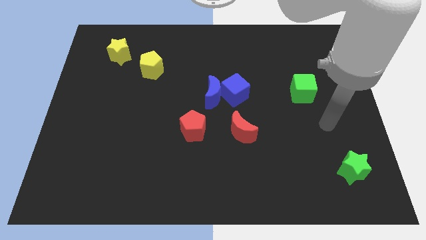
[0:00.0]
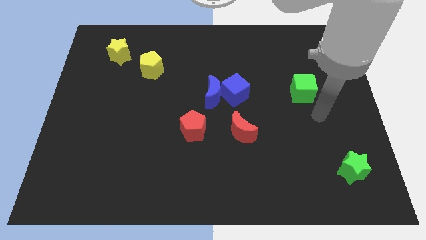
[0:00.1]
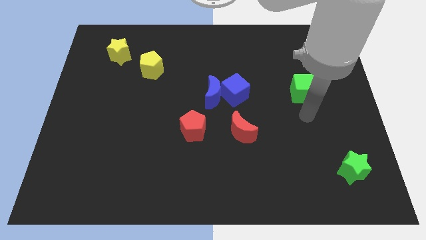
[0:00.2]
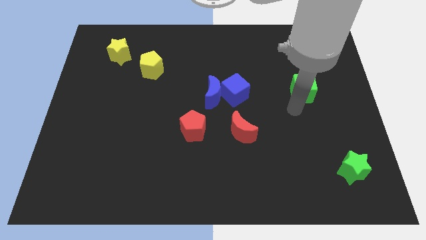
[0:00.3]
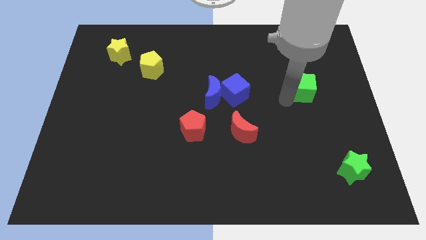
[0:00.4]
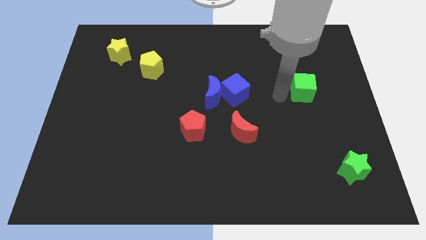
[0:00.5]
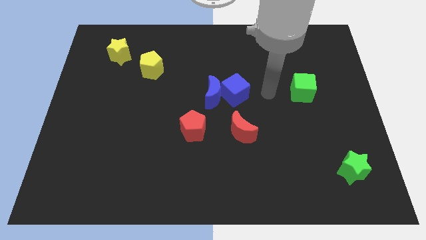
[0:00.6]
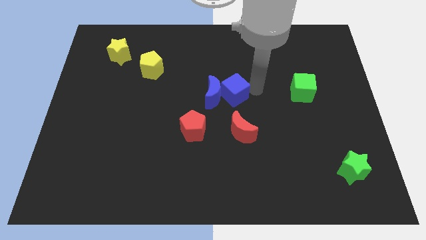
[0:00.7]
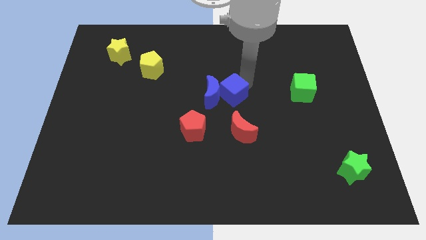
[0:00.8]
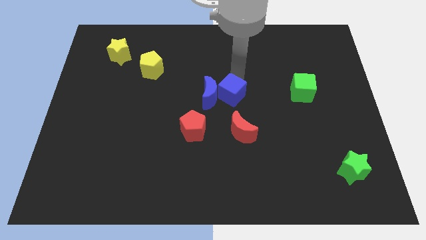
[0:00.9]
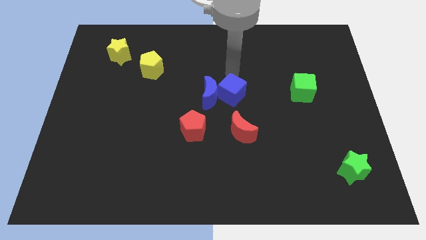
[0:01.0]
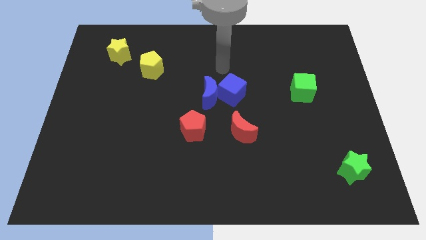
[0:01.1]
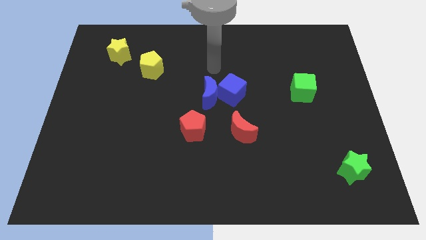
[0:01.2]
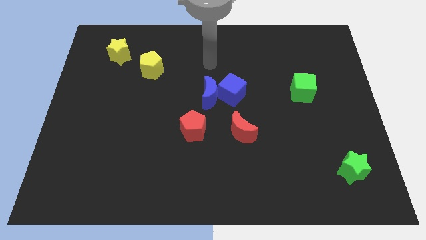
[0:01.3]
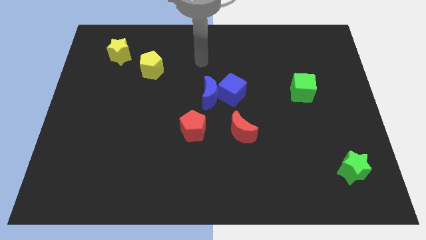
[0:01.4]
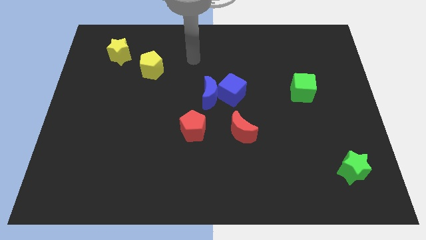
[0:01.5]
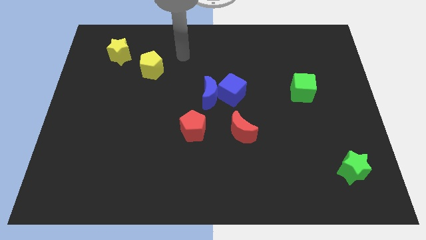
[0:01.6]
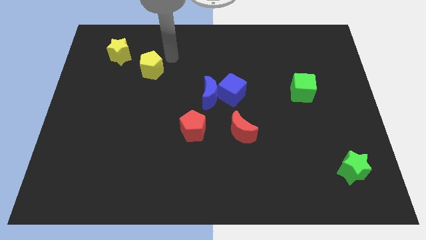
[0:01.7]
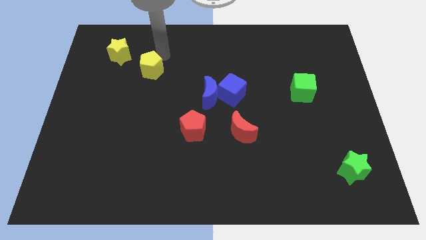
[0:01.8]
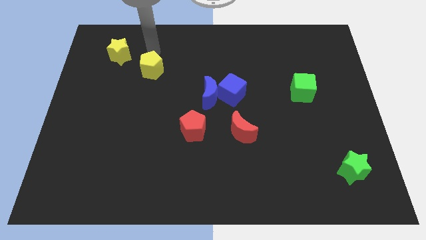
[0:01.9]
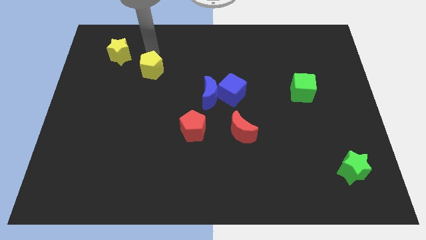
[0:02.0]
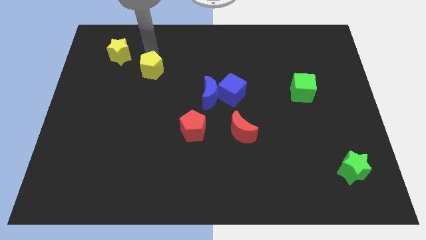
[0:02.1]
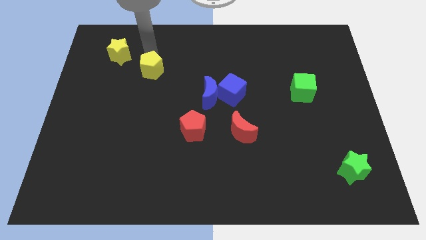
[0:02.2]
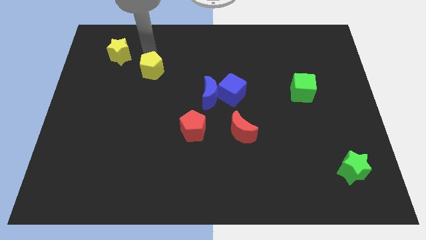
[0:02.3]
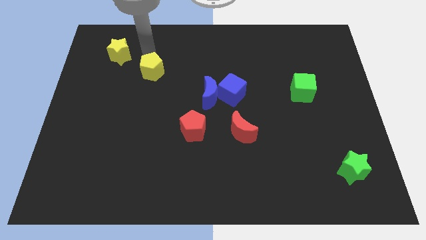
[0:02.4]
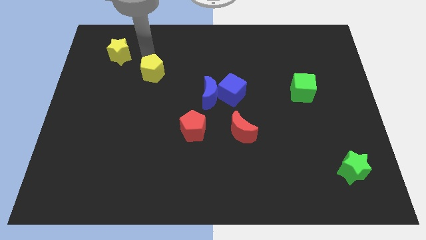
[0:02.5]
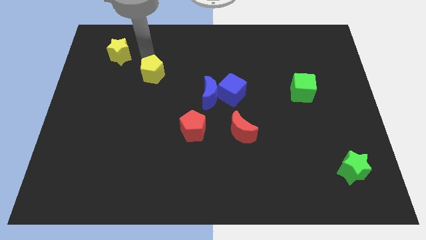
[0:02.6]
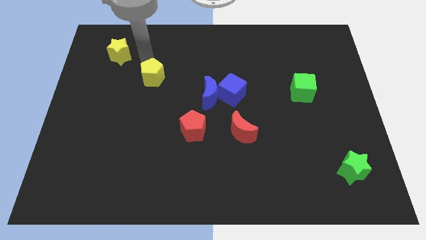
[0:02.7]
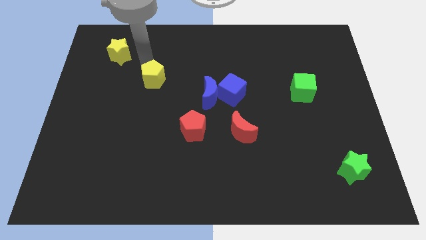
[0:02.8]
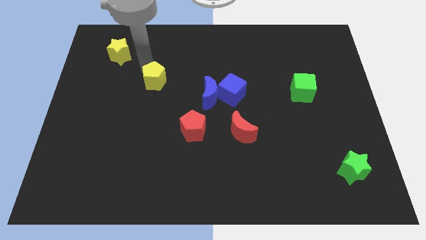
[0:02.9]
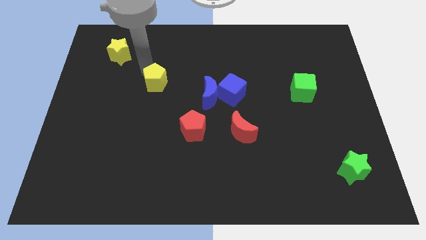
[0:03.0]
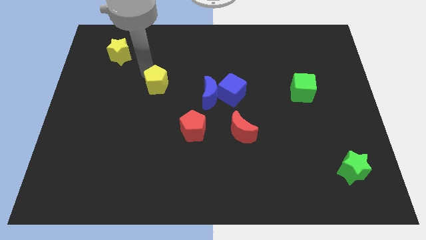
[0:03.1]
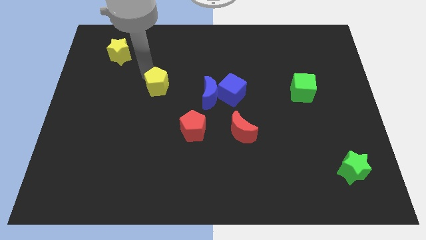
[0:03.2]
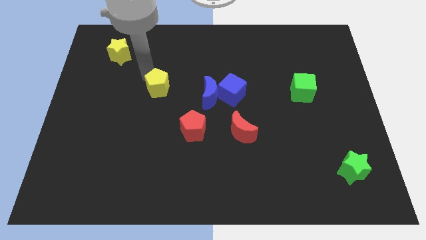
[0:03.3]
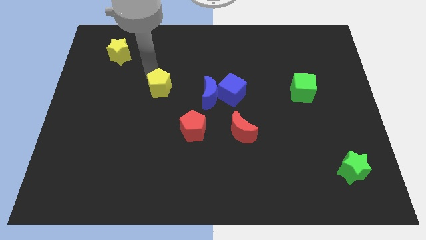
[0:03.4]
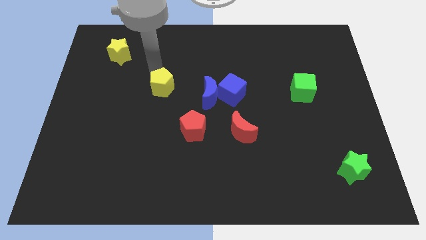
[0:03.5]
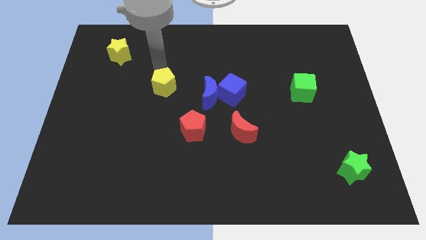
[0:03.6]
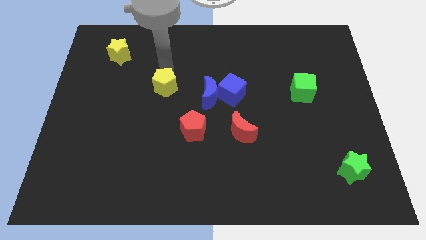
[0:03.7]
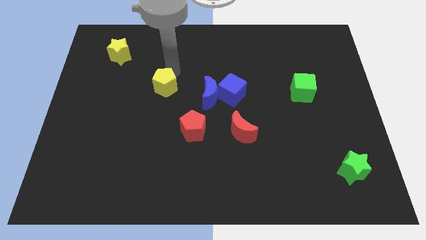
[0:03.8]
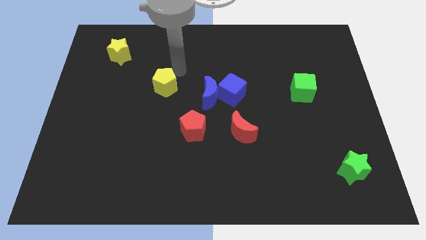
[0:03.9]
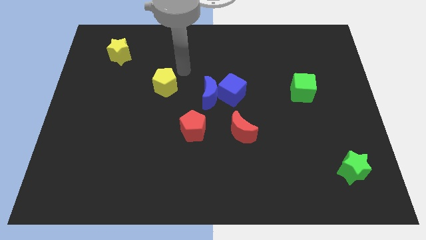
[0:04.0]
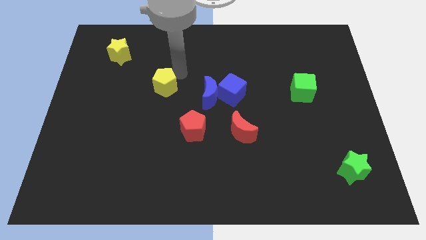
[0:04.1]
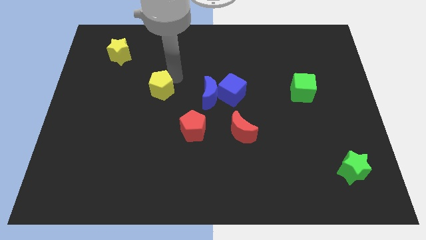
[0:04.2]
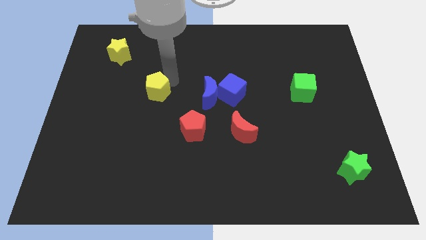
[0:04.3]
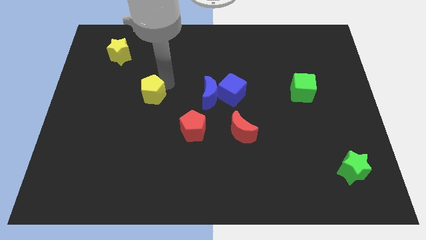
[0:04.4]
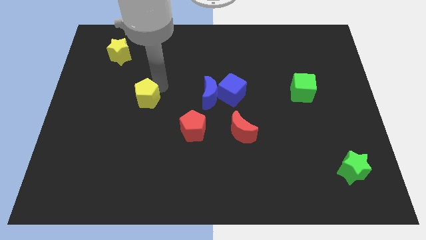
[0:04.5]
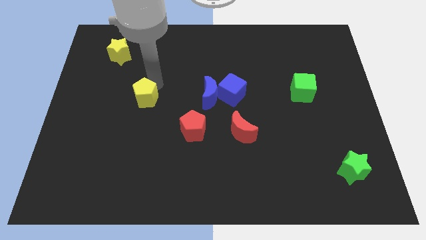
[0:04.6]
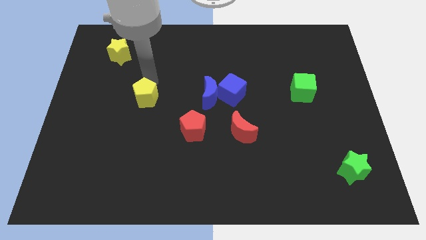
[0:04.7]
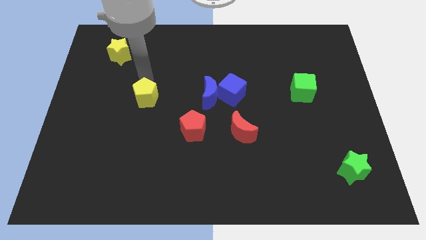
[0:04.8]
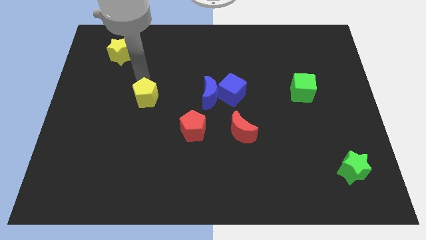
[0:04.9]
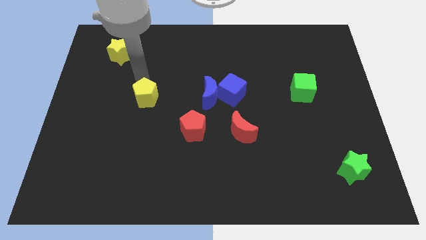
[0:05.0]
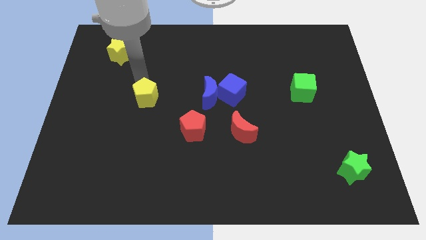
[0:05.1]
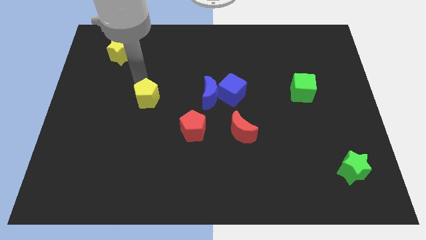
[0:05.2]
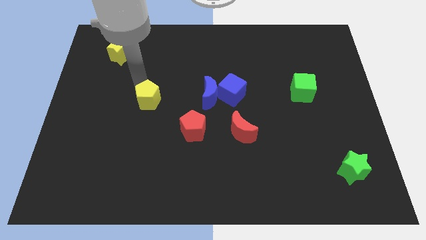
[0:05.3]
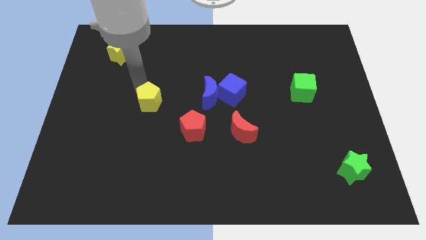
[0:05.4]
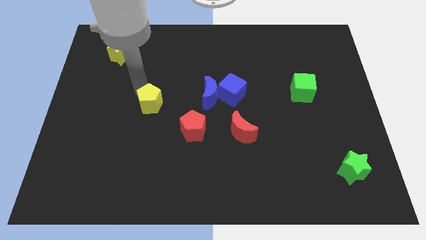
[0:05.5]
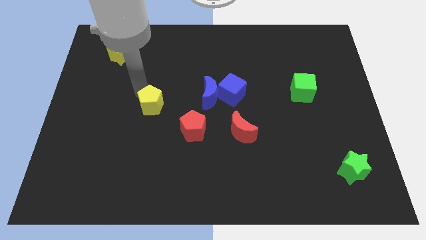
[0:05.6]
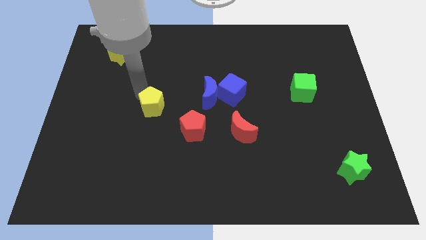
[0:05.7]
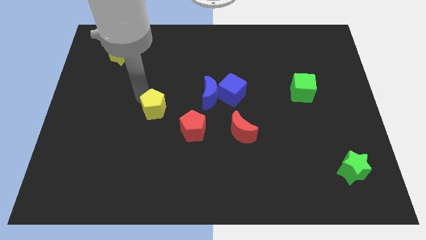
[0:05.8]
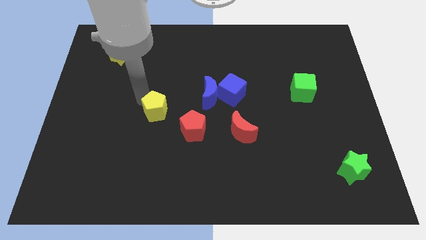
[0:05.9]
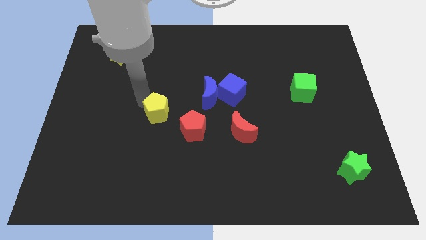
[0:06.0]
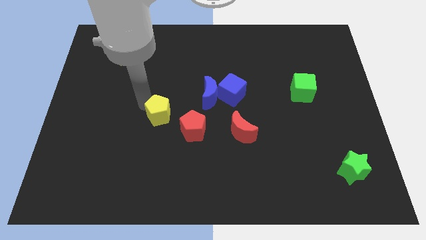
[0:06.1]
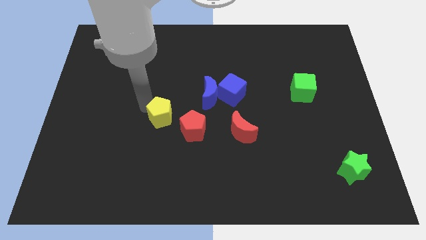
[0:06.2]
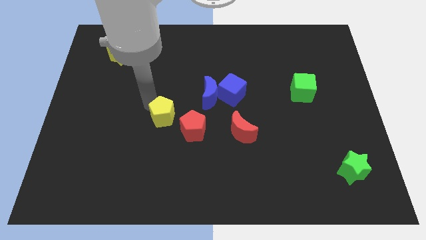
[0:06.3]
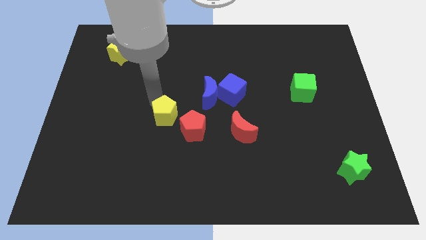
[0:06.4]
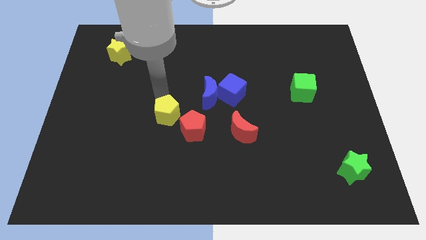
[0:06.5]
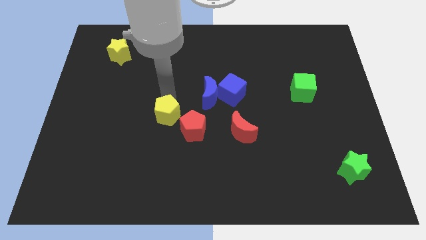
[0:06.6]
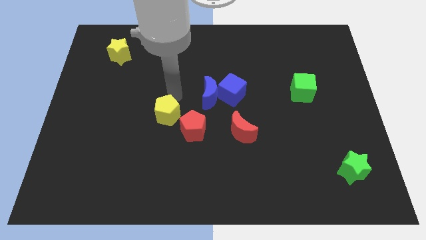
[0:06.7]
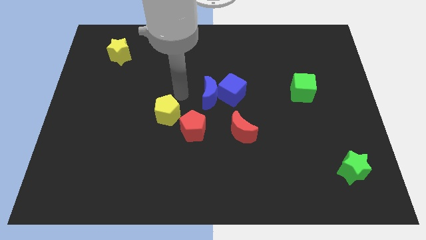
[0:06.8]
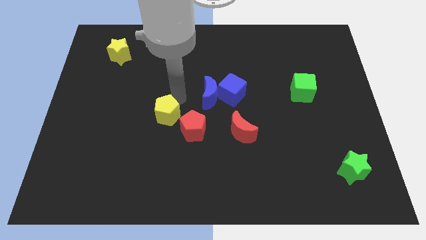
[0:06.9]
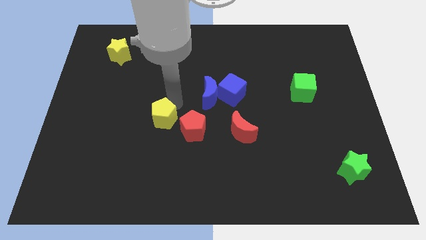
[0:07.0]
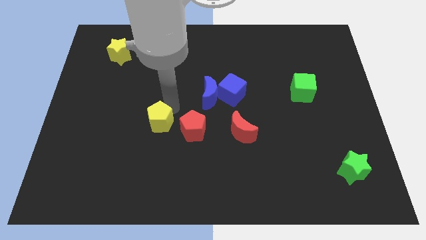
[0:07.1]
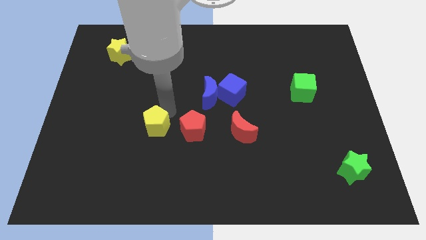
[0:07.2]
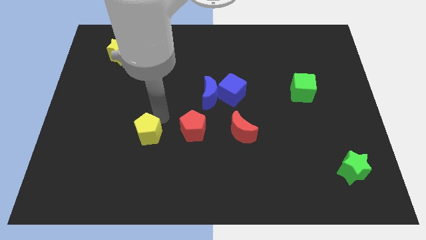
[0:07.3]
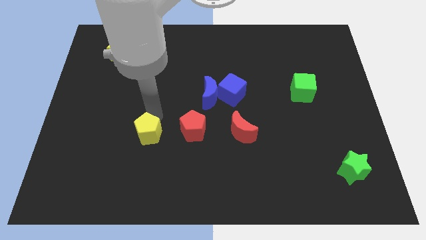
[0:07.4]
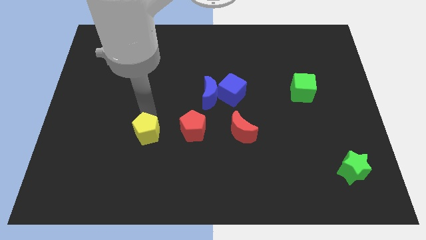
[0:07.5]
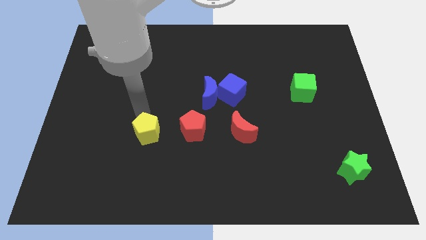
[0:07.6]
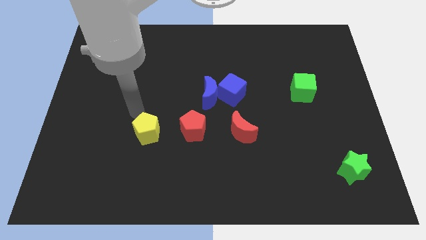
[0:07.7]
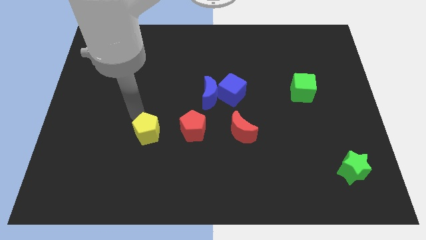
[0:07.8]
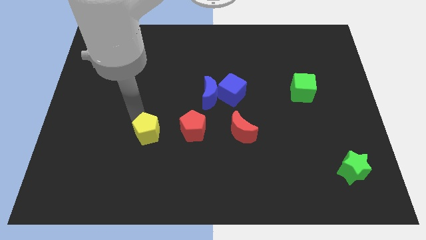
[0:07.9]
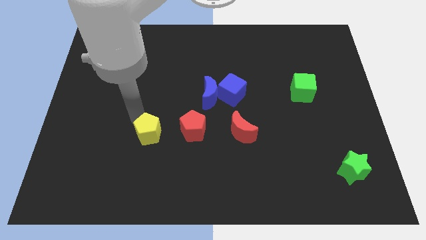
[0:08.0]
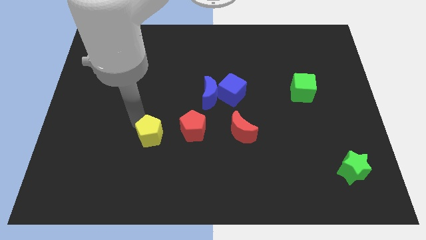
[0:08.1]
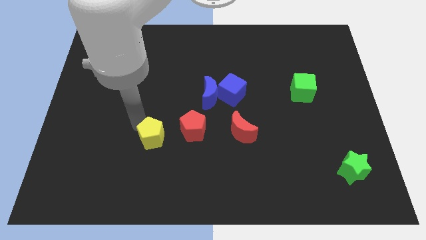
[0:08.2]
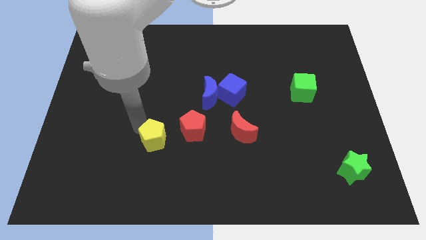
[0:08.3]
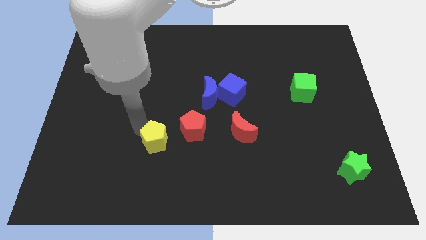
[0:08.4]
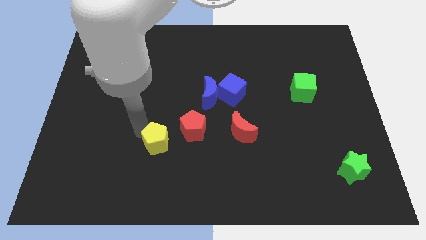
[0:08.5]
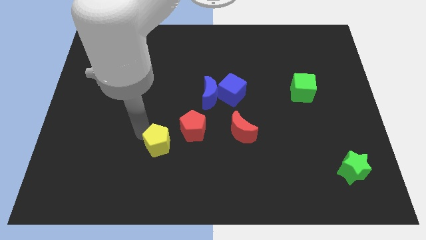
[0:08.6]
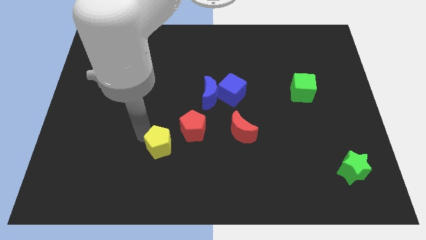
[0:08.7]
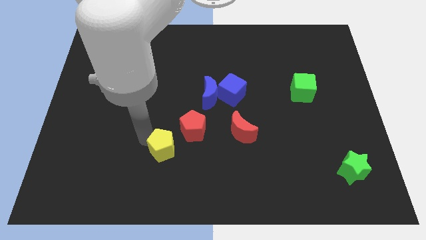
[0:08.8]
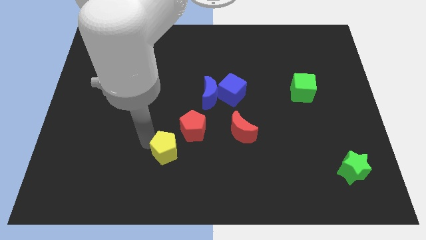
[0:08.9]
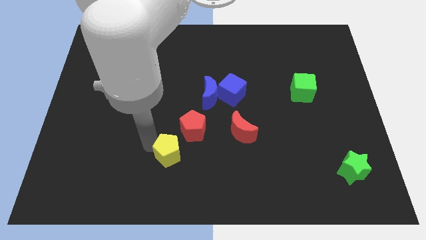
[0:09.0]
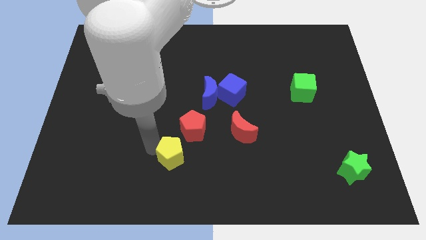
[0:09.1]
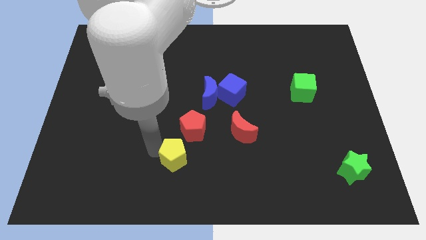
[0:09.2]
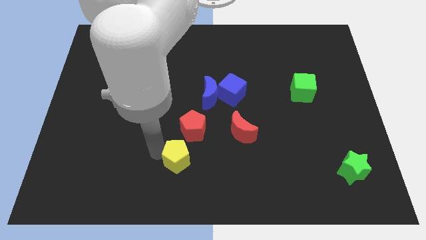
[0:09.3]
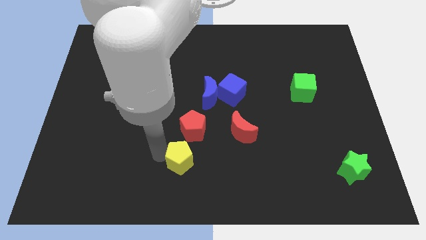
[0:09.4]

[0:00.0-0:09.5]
put the yellow pentagon to the bottom side
